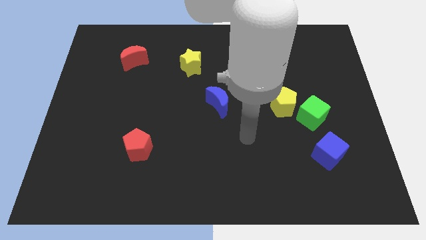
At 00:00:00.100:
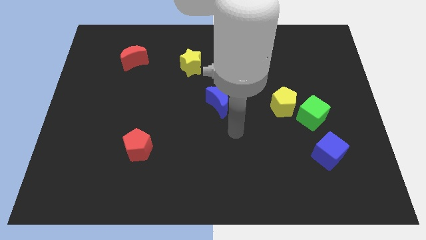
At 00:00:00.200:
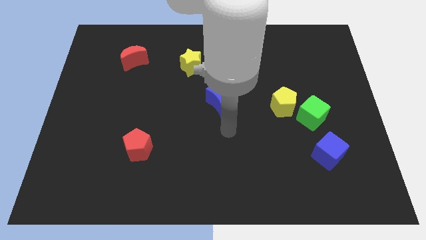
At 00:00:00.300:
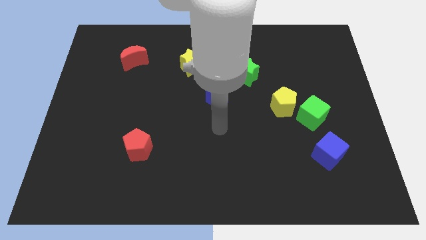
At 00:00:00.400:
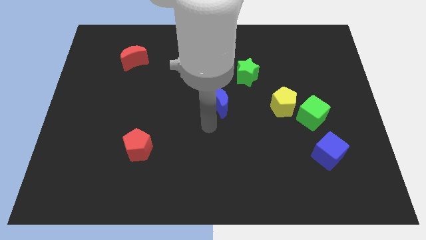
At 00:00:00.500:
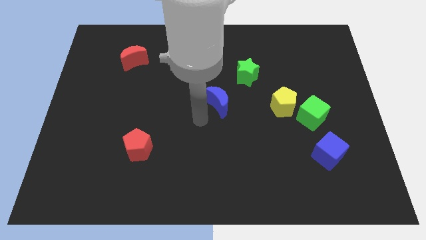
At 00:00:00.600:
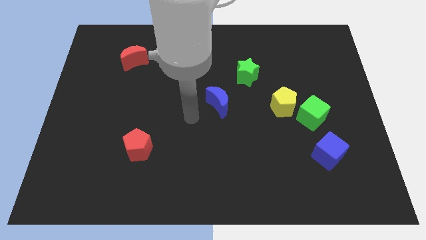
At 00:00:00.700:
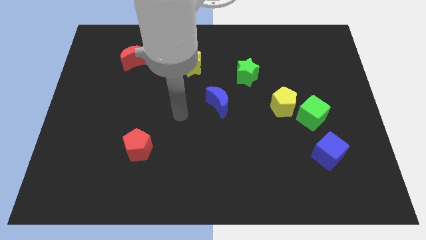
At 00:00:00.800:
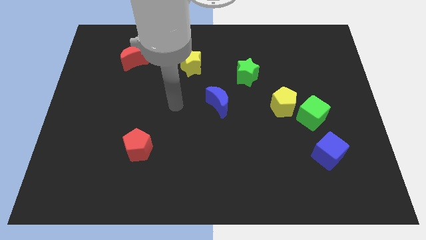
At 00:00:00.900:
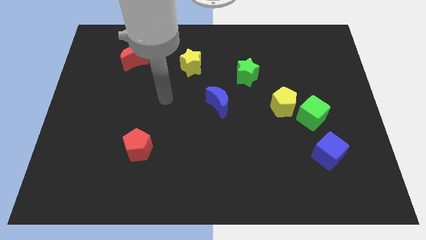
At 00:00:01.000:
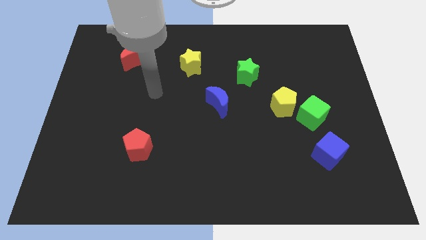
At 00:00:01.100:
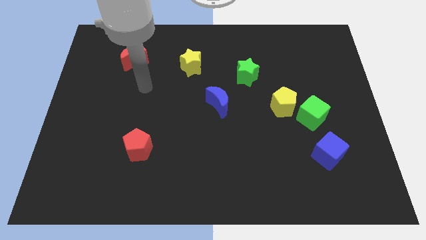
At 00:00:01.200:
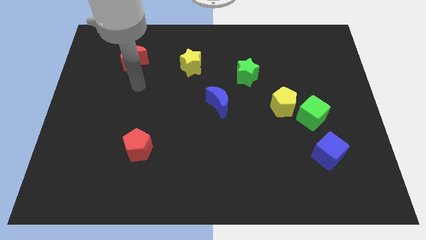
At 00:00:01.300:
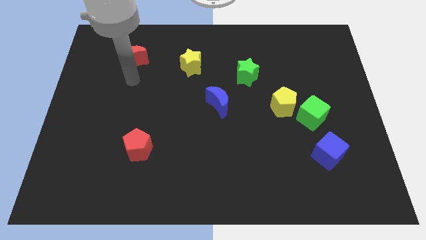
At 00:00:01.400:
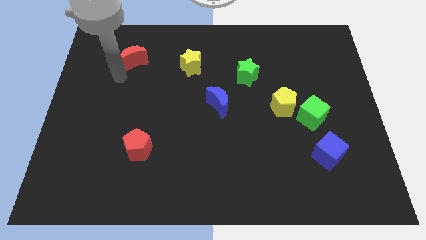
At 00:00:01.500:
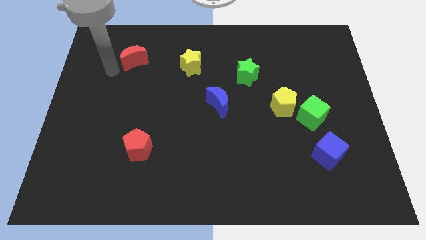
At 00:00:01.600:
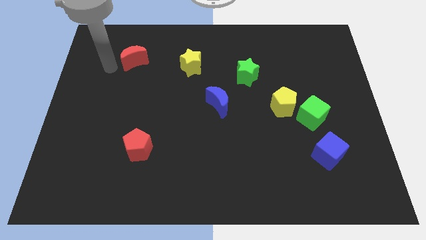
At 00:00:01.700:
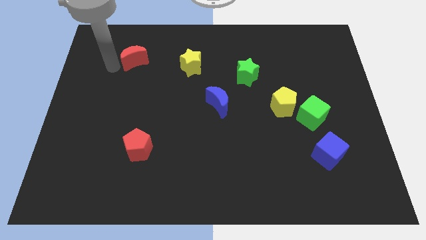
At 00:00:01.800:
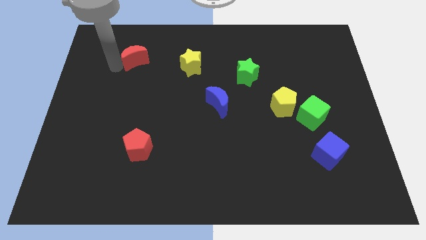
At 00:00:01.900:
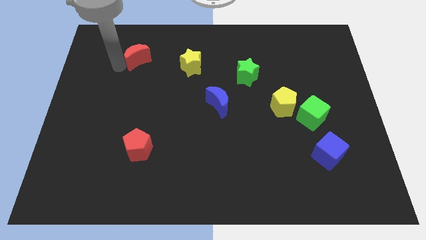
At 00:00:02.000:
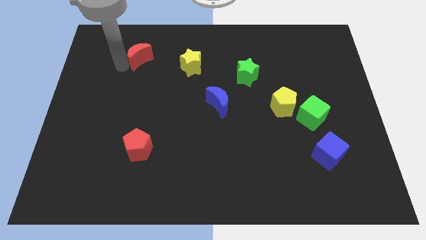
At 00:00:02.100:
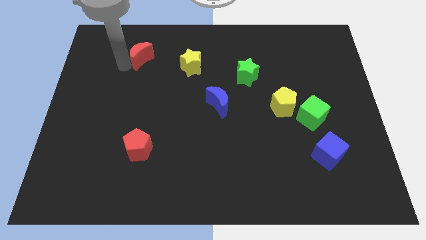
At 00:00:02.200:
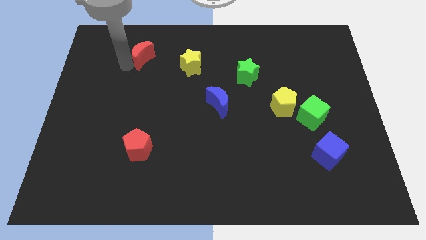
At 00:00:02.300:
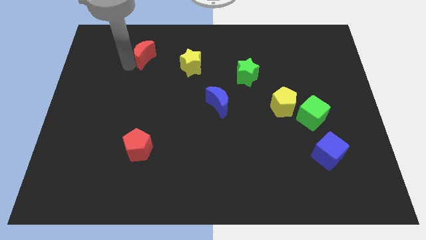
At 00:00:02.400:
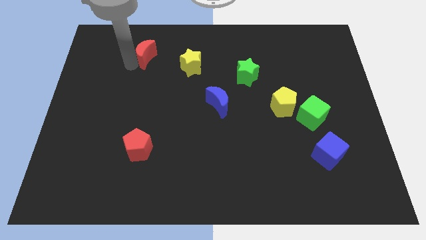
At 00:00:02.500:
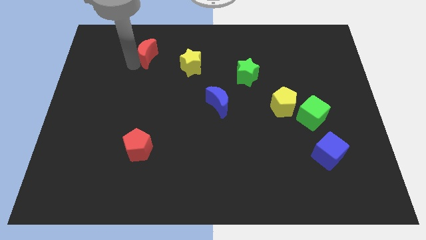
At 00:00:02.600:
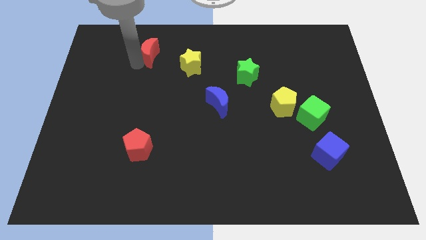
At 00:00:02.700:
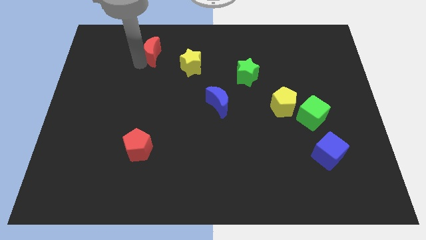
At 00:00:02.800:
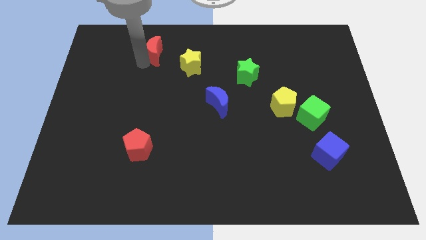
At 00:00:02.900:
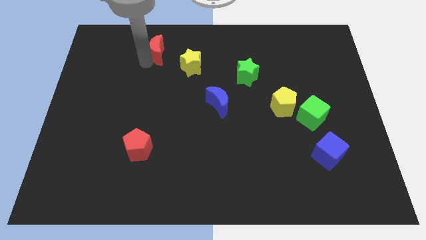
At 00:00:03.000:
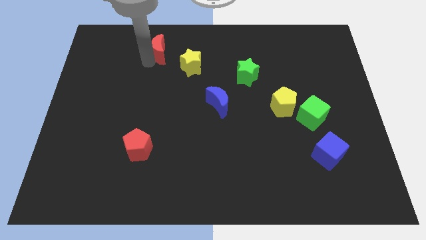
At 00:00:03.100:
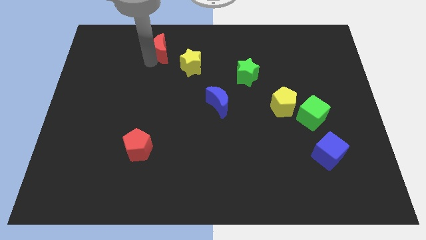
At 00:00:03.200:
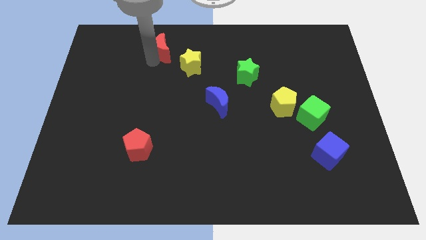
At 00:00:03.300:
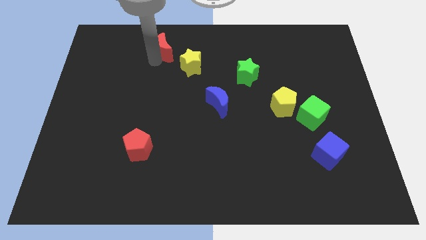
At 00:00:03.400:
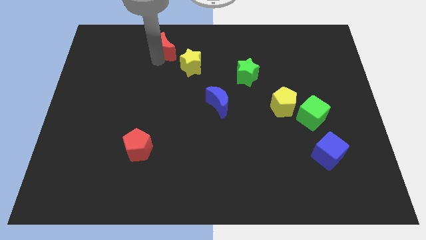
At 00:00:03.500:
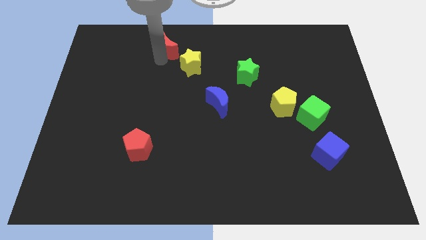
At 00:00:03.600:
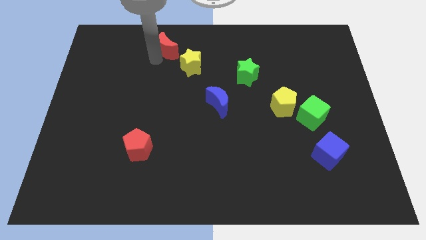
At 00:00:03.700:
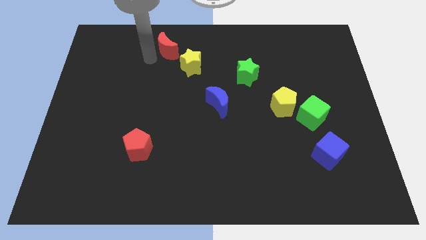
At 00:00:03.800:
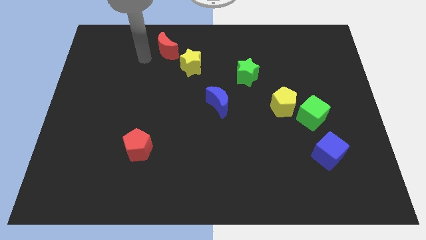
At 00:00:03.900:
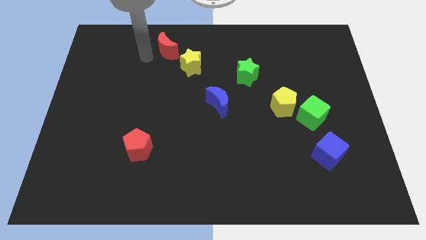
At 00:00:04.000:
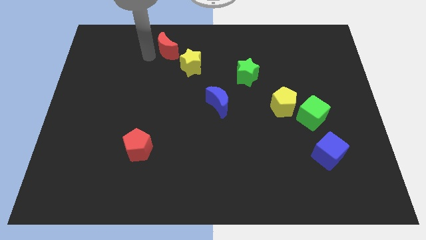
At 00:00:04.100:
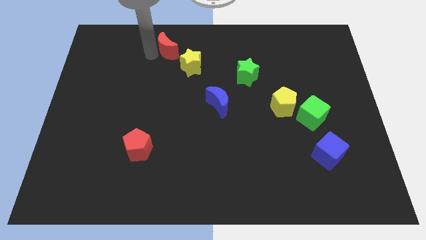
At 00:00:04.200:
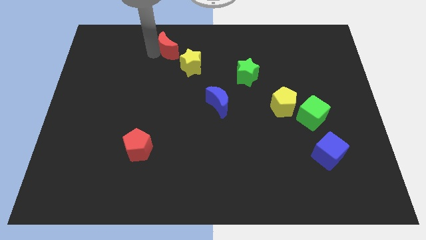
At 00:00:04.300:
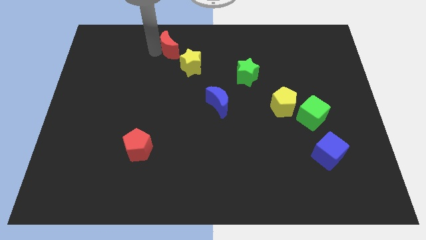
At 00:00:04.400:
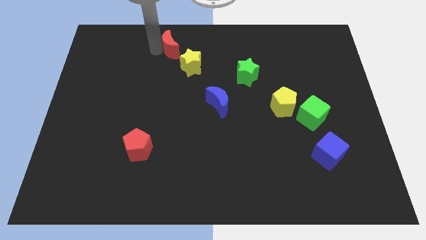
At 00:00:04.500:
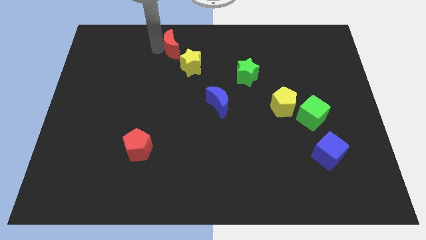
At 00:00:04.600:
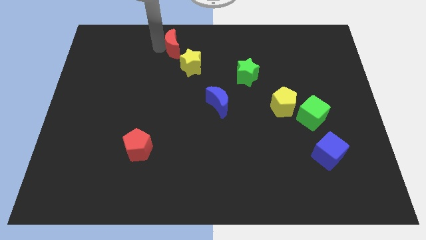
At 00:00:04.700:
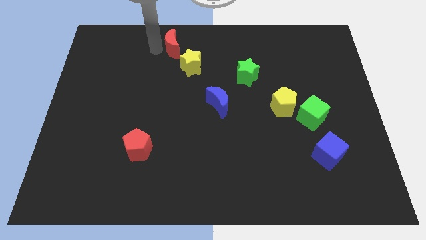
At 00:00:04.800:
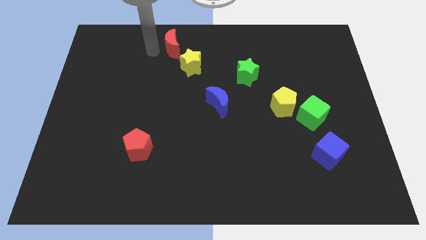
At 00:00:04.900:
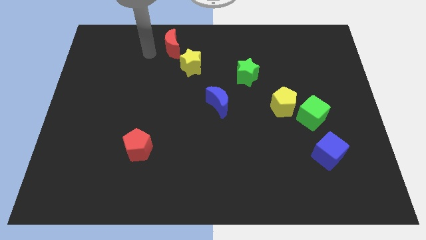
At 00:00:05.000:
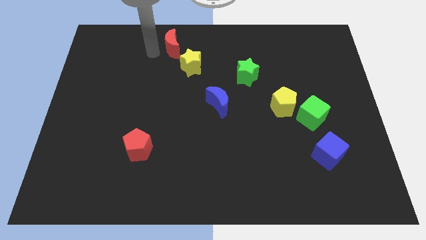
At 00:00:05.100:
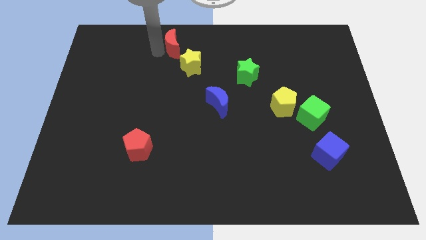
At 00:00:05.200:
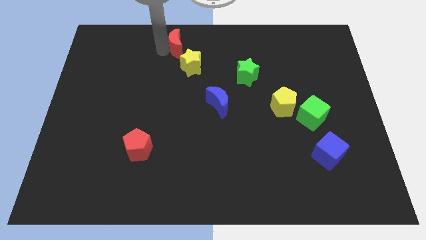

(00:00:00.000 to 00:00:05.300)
slide the red moon to the top

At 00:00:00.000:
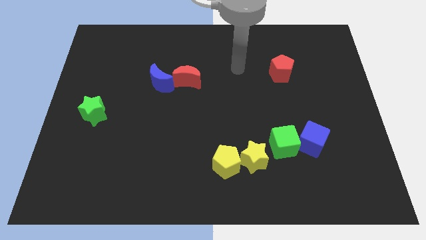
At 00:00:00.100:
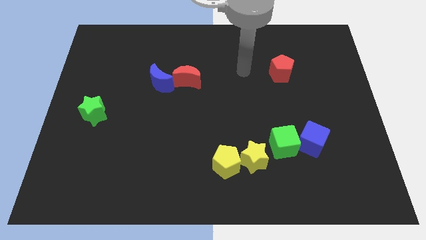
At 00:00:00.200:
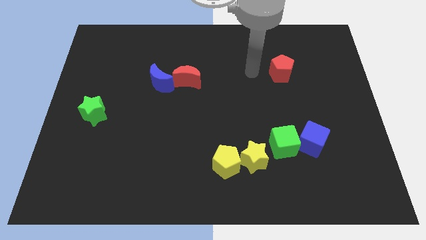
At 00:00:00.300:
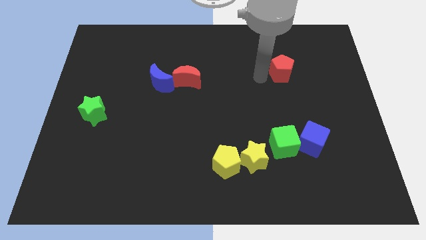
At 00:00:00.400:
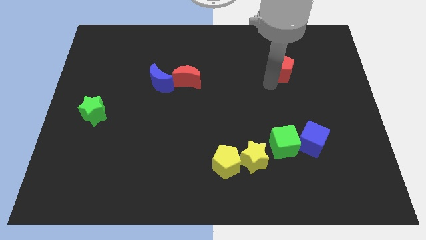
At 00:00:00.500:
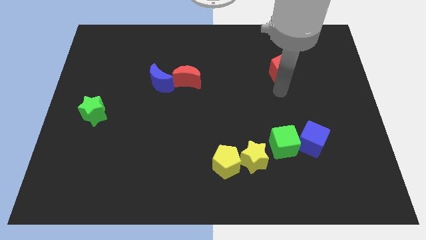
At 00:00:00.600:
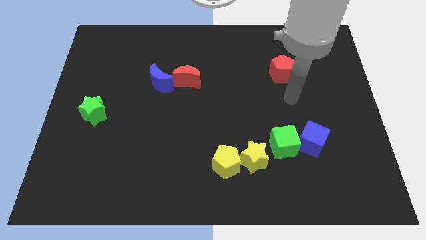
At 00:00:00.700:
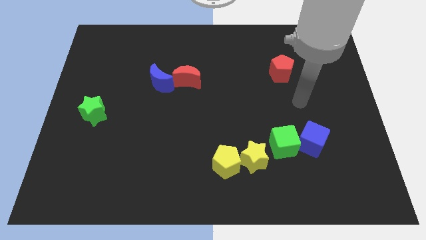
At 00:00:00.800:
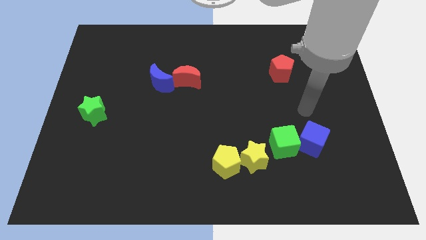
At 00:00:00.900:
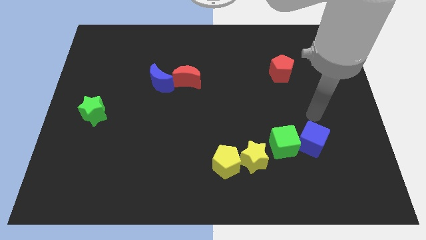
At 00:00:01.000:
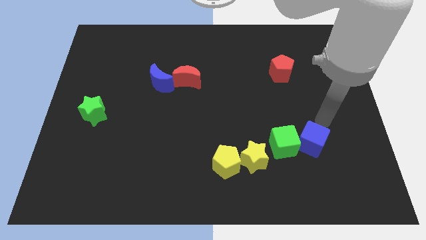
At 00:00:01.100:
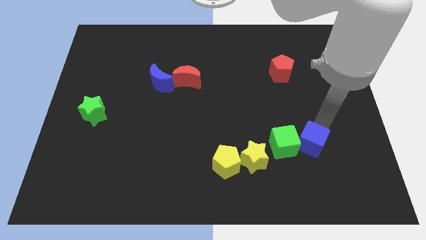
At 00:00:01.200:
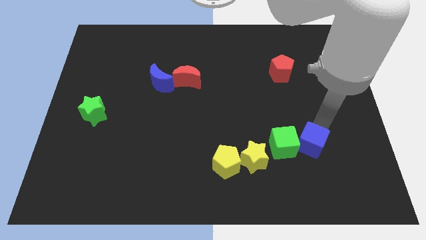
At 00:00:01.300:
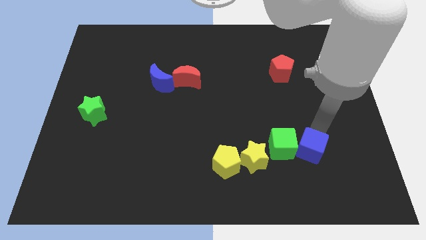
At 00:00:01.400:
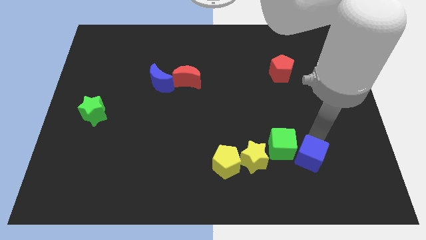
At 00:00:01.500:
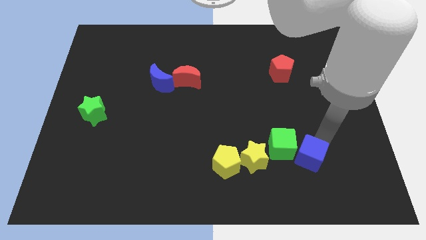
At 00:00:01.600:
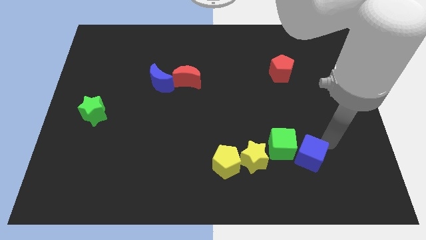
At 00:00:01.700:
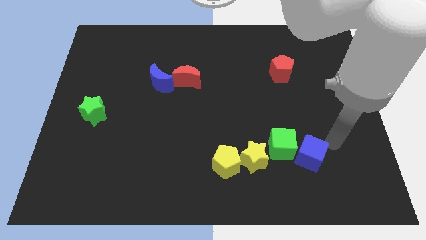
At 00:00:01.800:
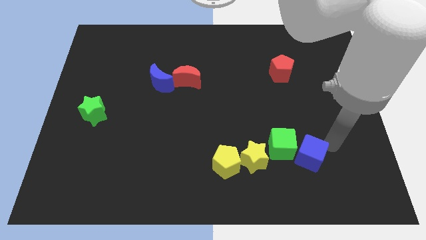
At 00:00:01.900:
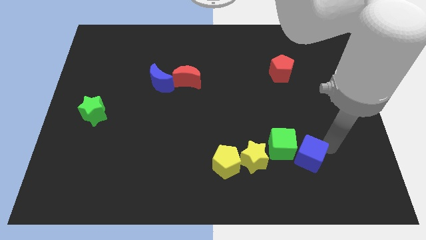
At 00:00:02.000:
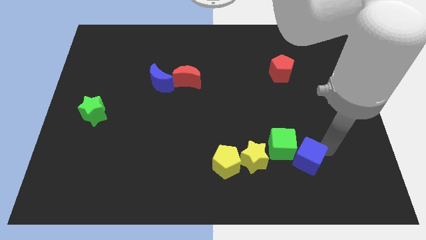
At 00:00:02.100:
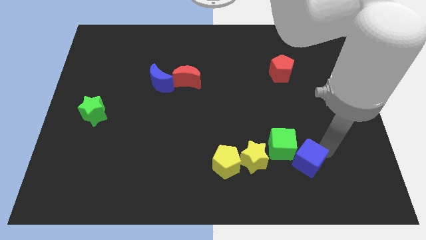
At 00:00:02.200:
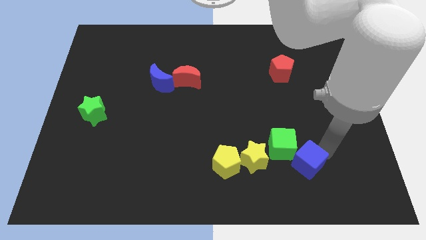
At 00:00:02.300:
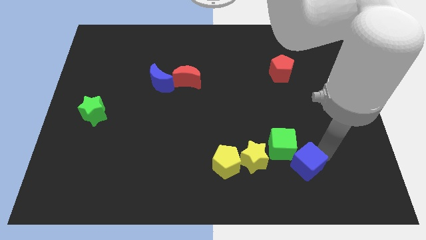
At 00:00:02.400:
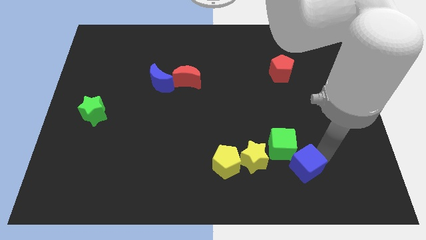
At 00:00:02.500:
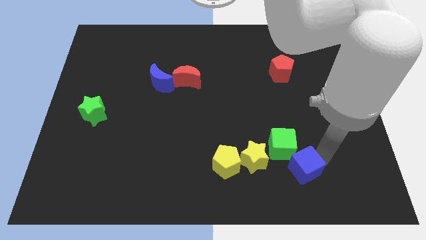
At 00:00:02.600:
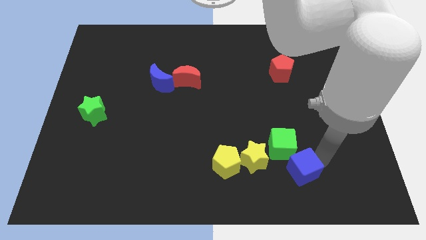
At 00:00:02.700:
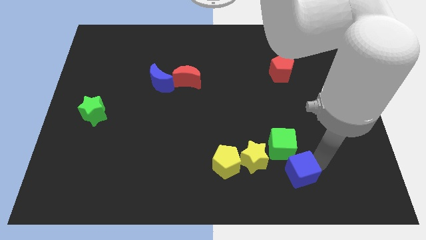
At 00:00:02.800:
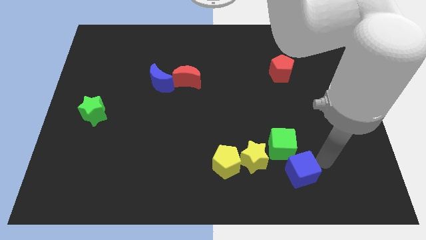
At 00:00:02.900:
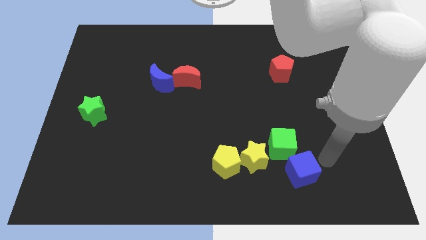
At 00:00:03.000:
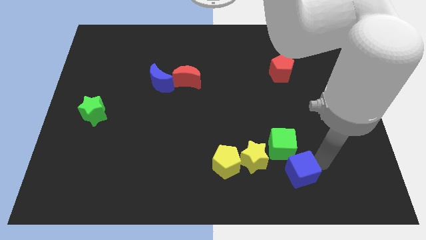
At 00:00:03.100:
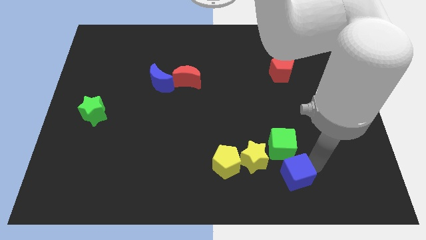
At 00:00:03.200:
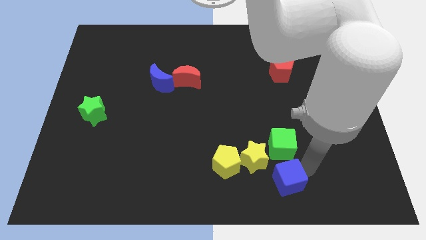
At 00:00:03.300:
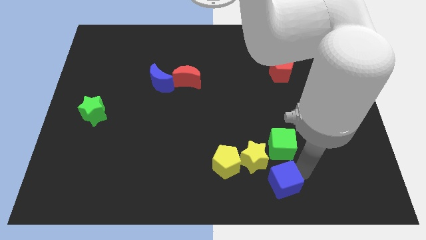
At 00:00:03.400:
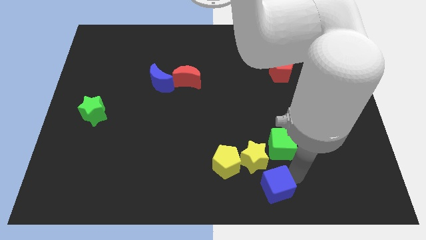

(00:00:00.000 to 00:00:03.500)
slide the blue cube to the bottom
